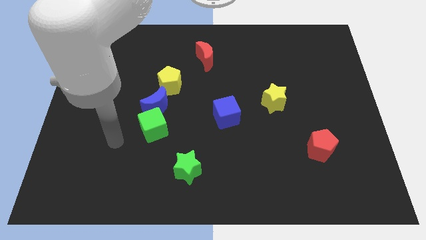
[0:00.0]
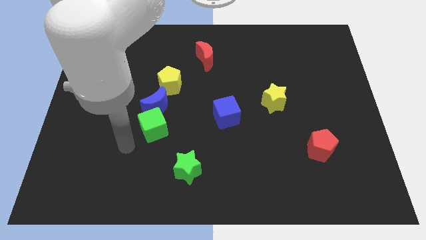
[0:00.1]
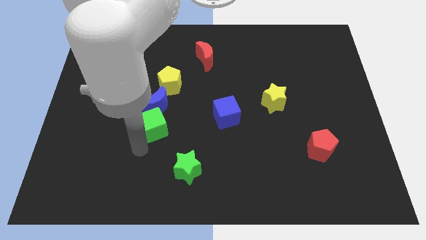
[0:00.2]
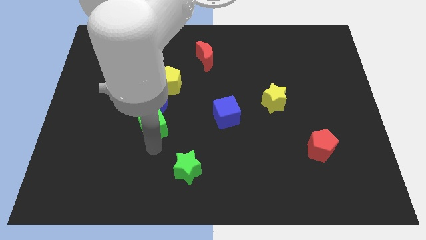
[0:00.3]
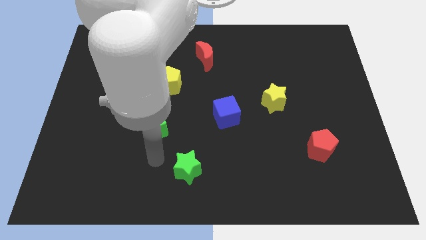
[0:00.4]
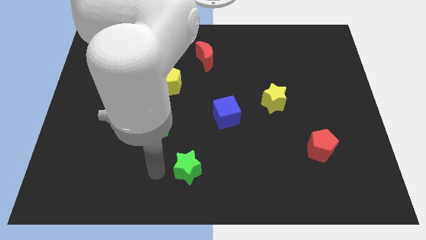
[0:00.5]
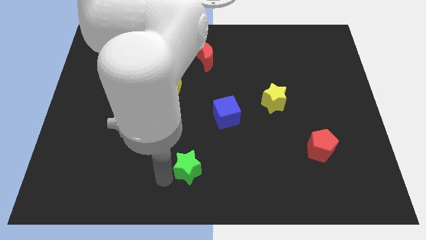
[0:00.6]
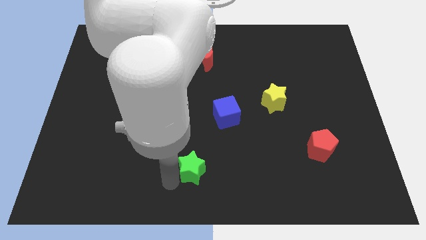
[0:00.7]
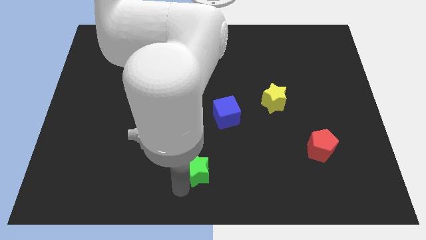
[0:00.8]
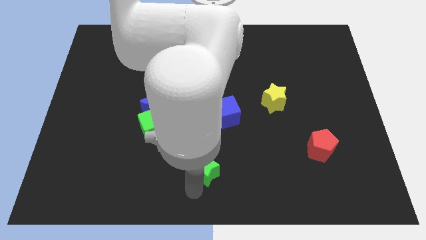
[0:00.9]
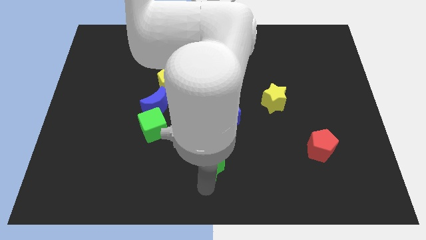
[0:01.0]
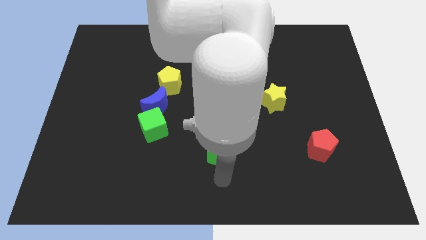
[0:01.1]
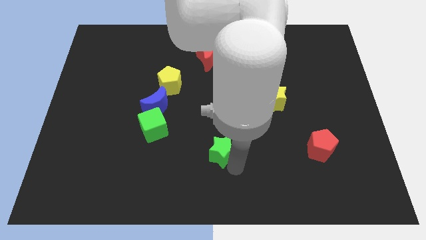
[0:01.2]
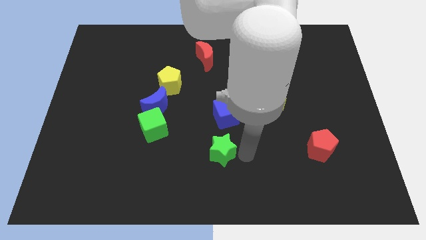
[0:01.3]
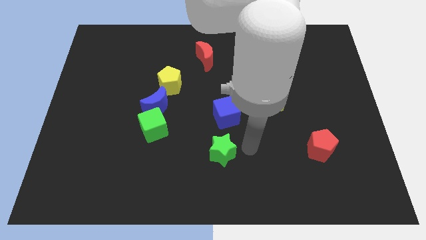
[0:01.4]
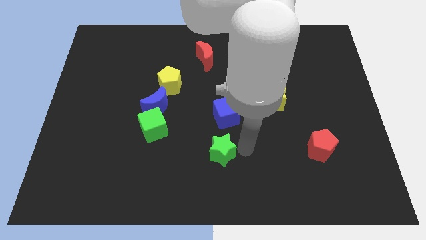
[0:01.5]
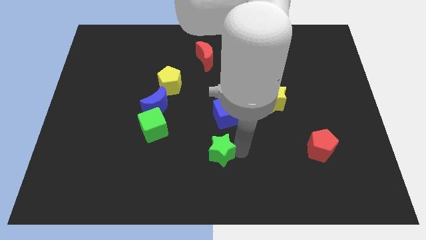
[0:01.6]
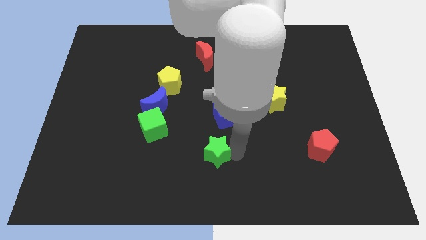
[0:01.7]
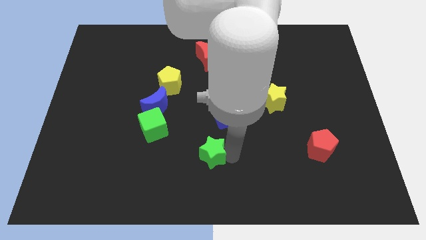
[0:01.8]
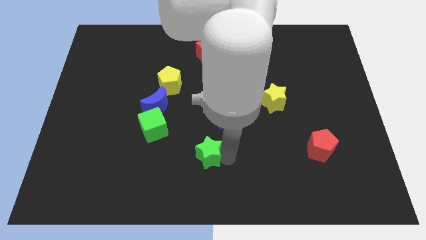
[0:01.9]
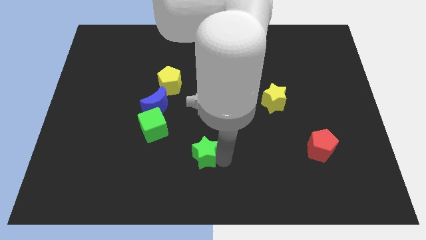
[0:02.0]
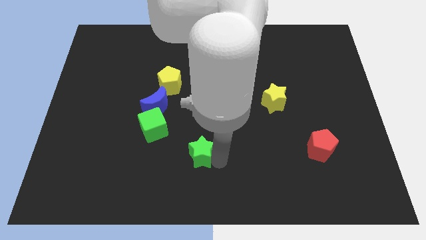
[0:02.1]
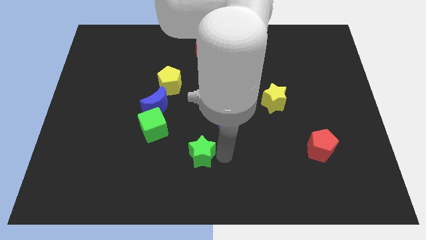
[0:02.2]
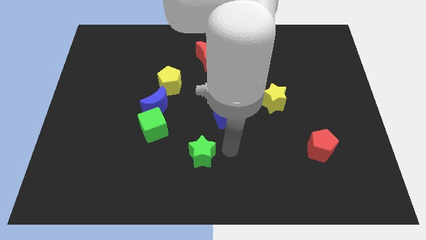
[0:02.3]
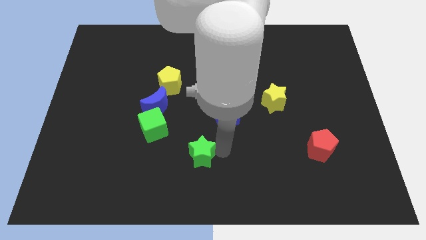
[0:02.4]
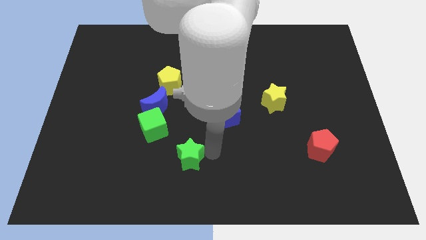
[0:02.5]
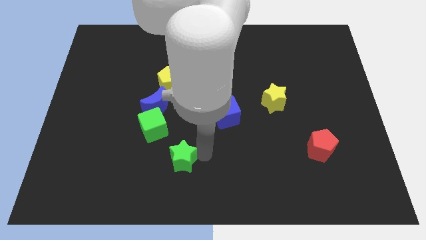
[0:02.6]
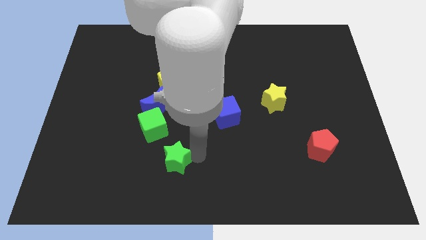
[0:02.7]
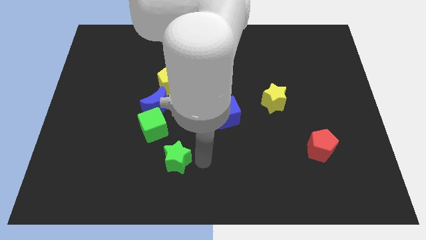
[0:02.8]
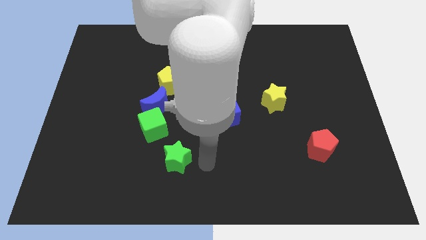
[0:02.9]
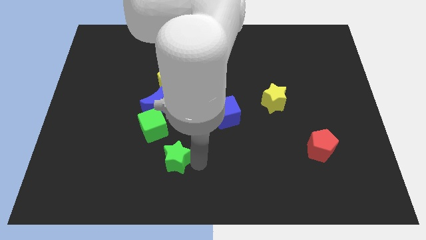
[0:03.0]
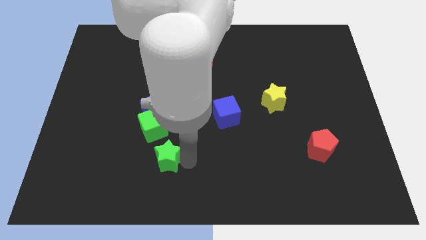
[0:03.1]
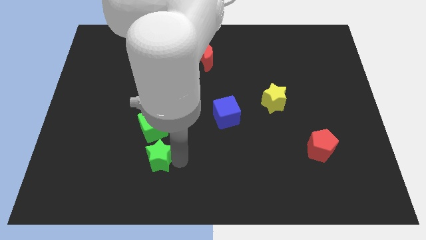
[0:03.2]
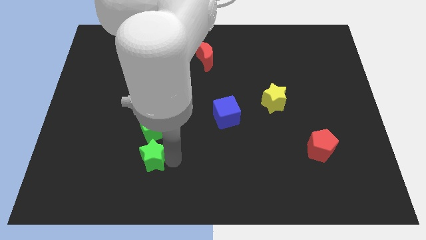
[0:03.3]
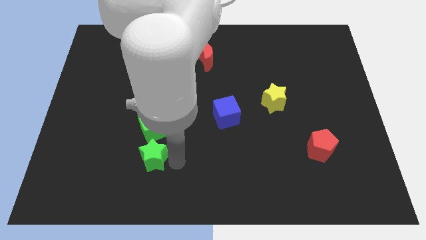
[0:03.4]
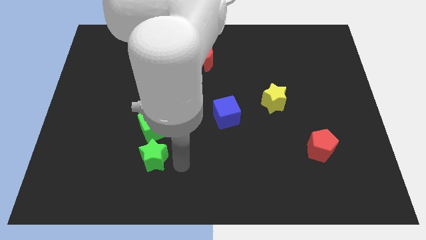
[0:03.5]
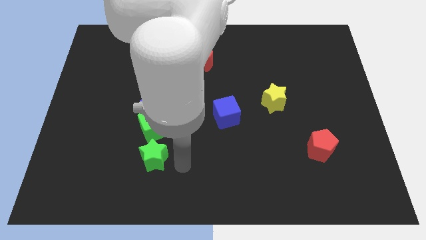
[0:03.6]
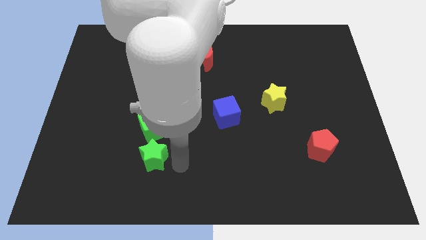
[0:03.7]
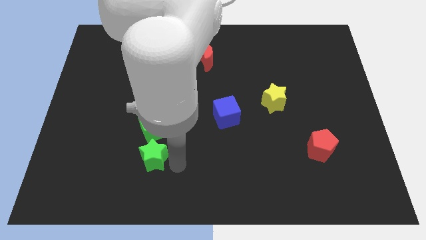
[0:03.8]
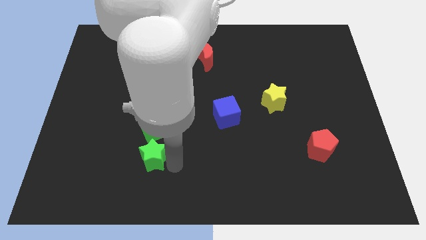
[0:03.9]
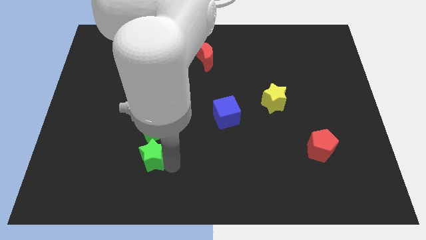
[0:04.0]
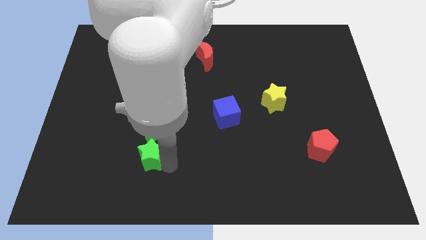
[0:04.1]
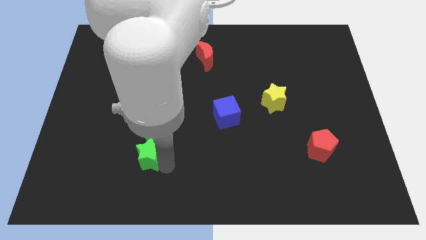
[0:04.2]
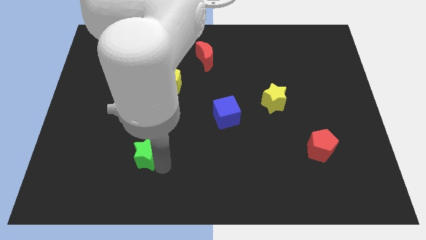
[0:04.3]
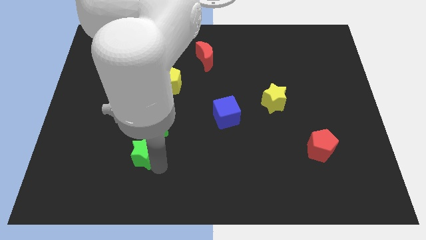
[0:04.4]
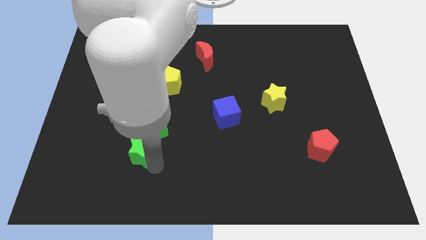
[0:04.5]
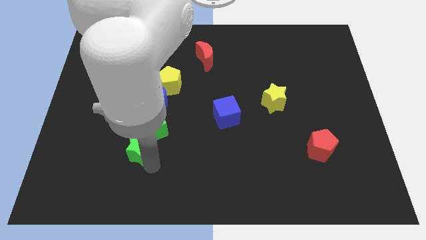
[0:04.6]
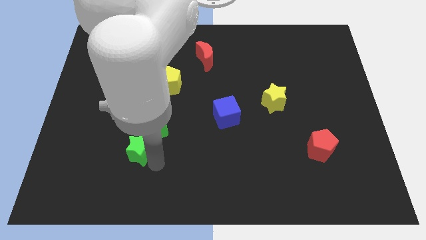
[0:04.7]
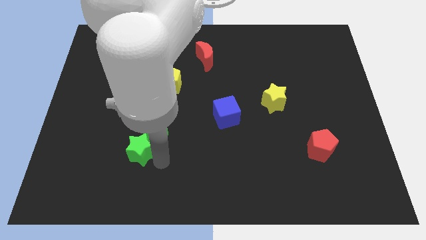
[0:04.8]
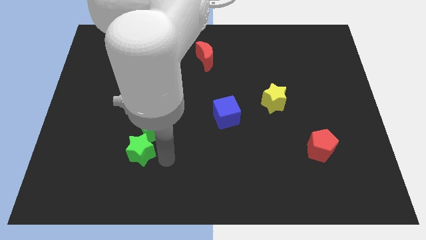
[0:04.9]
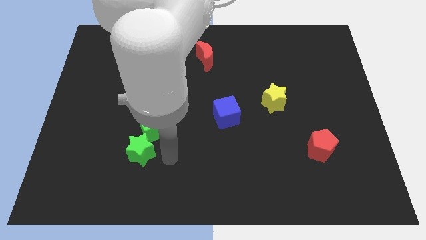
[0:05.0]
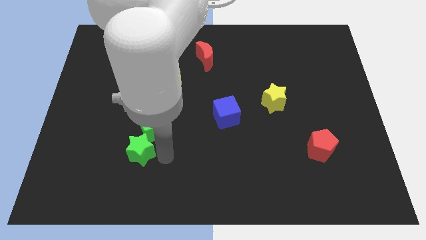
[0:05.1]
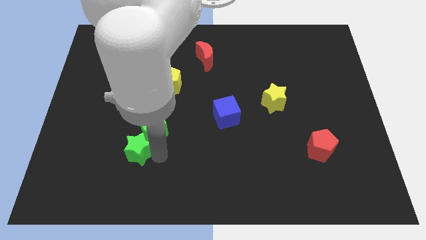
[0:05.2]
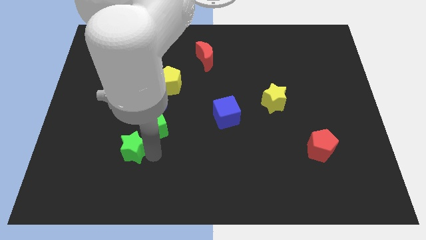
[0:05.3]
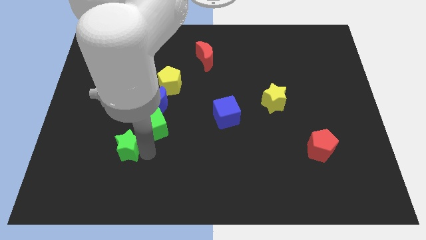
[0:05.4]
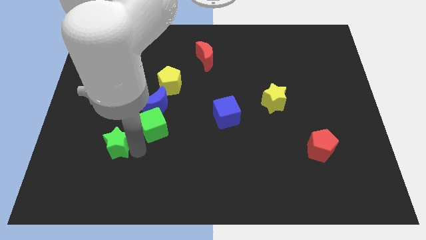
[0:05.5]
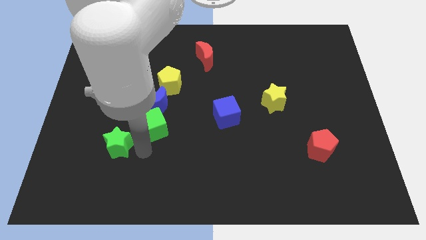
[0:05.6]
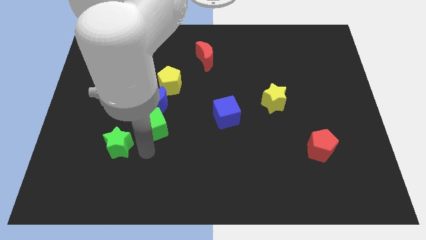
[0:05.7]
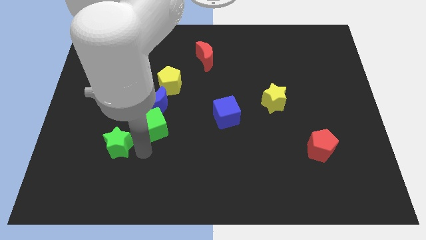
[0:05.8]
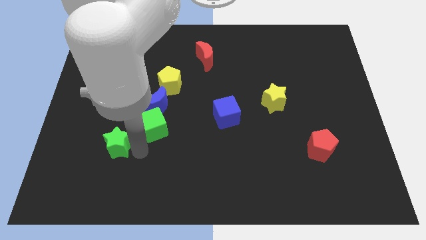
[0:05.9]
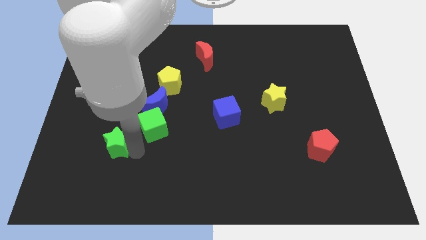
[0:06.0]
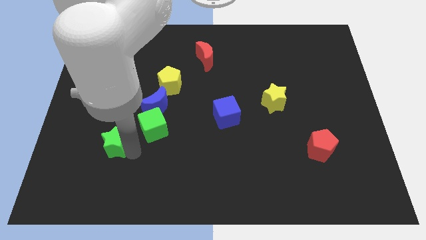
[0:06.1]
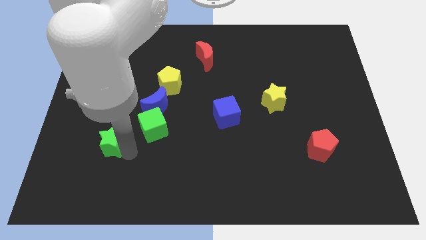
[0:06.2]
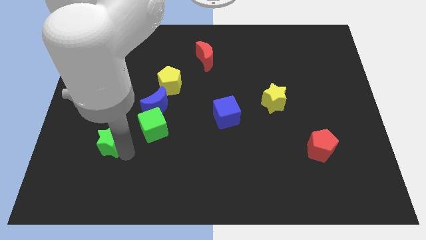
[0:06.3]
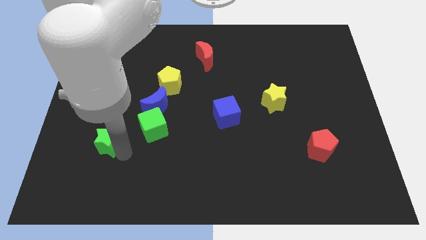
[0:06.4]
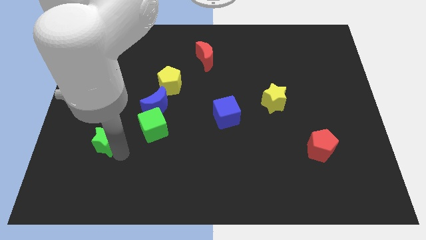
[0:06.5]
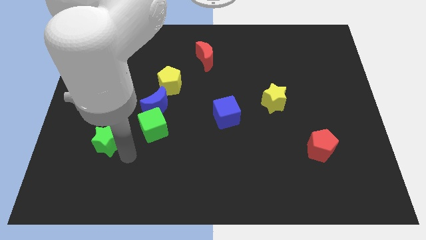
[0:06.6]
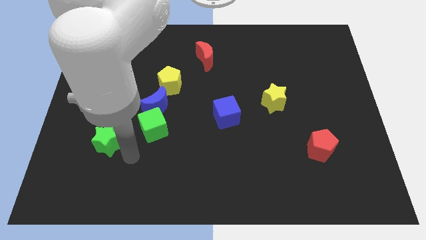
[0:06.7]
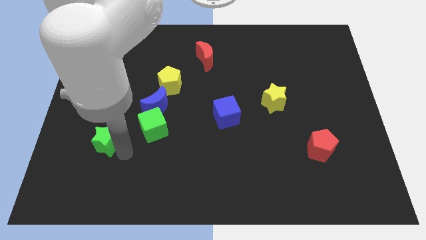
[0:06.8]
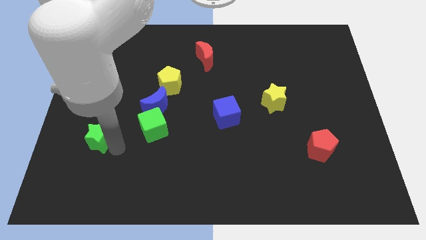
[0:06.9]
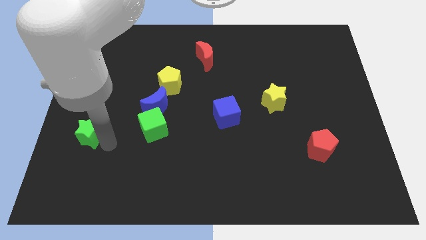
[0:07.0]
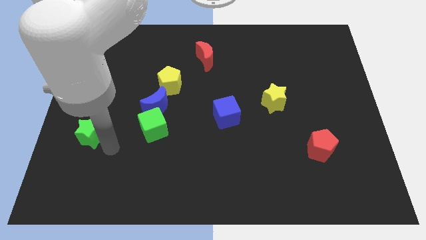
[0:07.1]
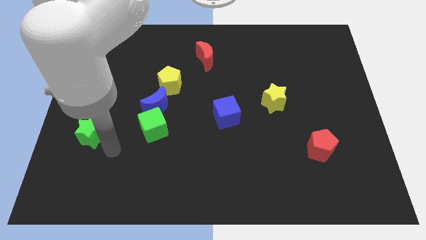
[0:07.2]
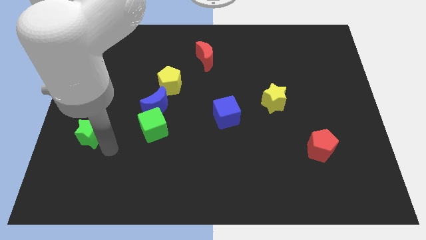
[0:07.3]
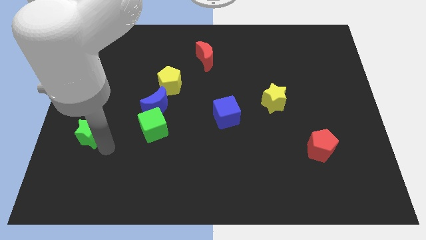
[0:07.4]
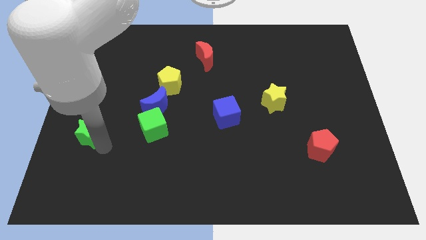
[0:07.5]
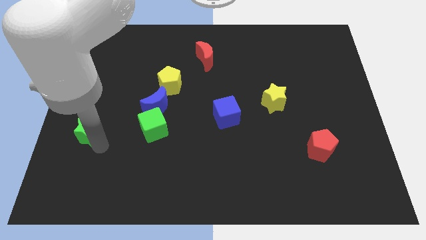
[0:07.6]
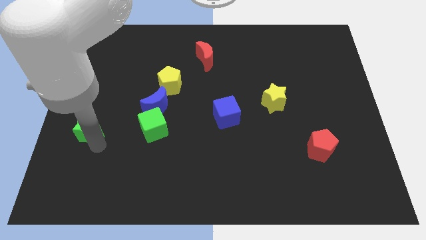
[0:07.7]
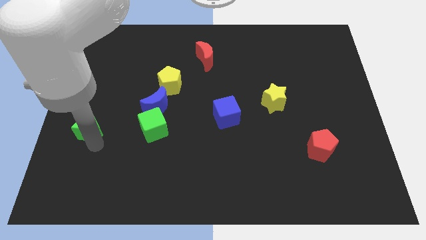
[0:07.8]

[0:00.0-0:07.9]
move the green star to the left side of the board
